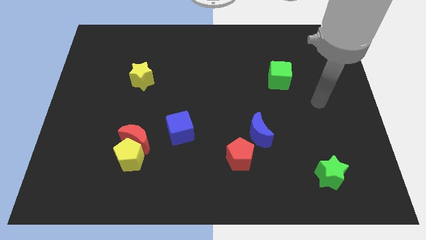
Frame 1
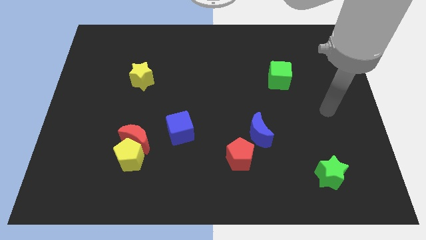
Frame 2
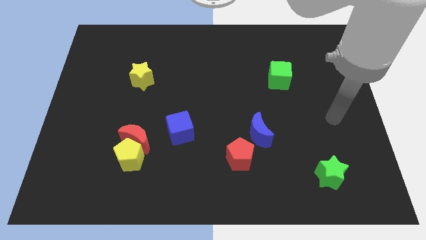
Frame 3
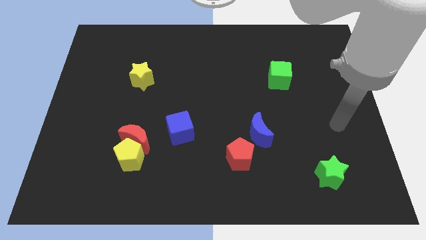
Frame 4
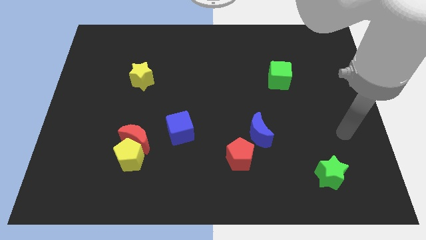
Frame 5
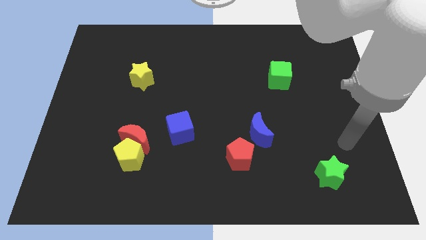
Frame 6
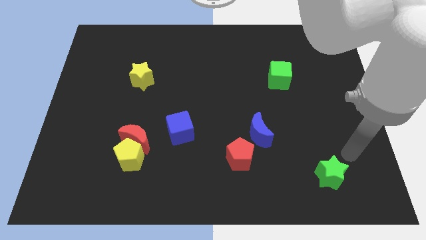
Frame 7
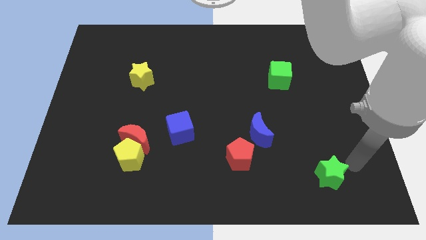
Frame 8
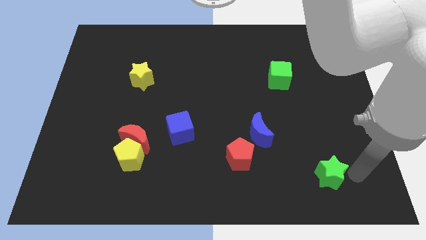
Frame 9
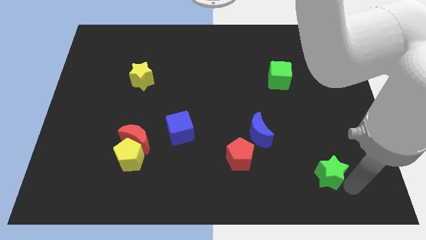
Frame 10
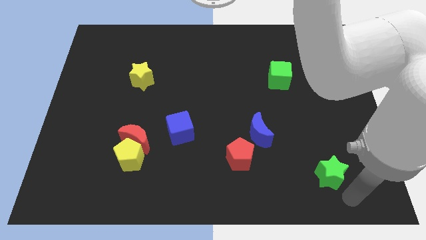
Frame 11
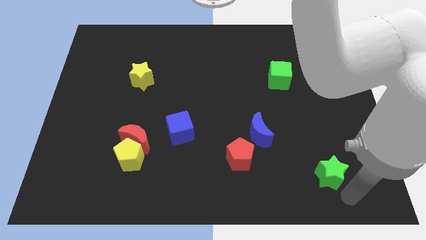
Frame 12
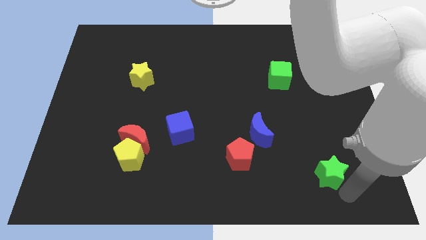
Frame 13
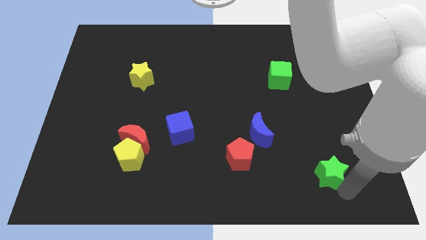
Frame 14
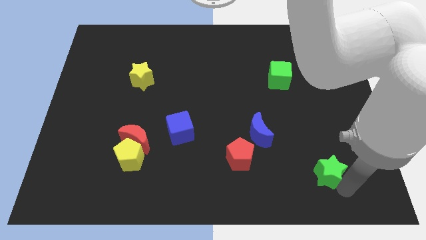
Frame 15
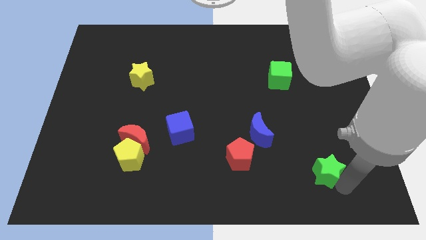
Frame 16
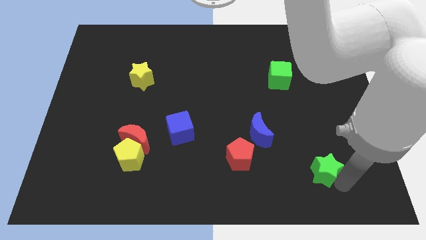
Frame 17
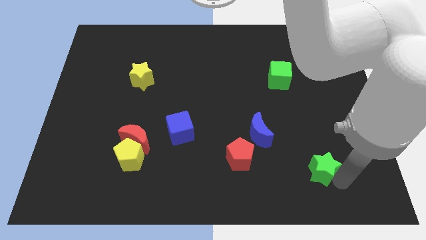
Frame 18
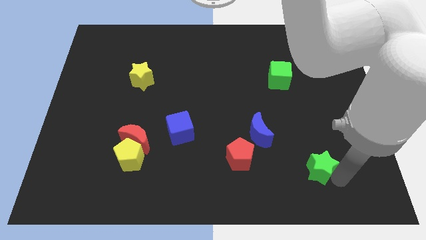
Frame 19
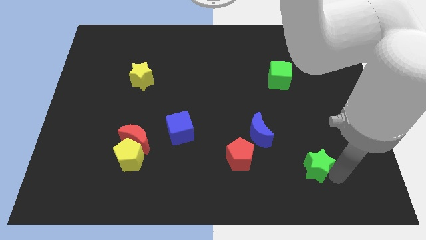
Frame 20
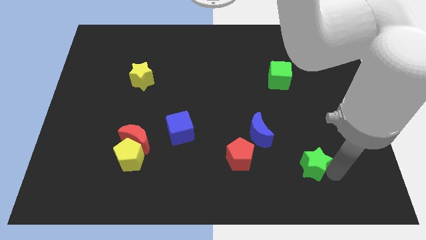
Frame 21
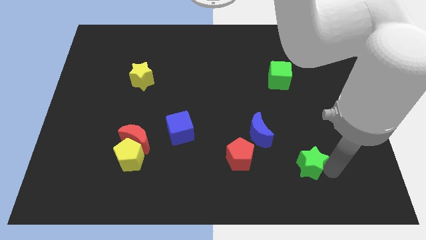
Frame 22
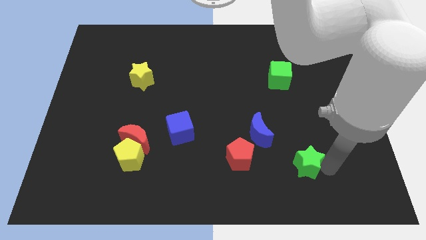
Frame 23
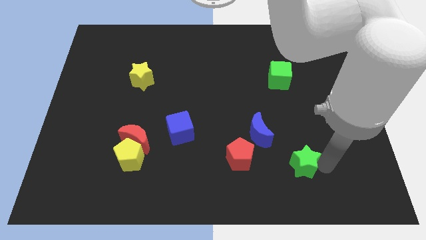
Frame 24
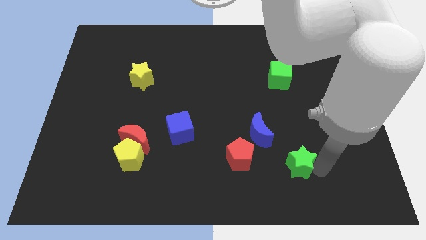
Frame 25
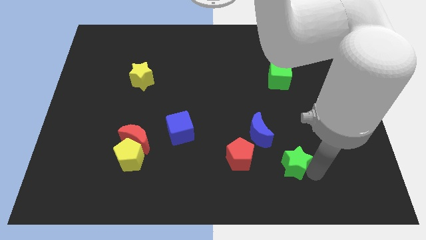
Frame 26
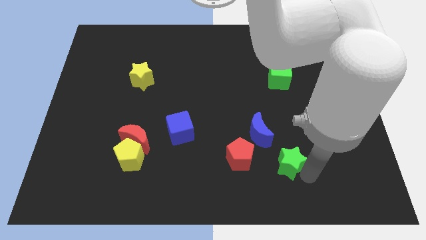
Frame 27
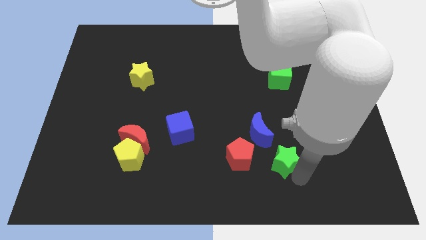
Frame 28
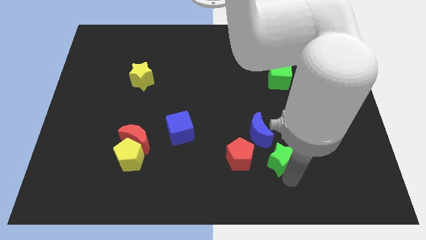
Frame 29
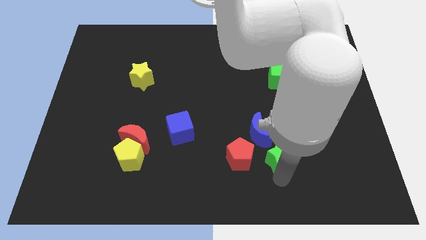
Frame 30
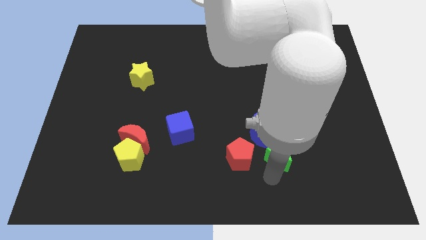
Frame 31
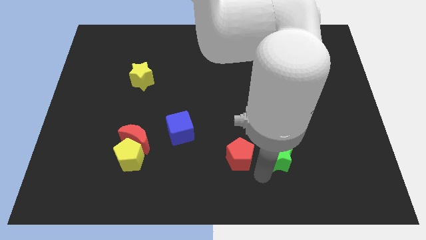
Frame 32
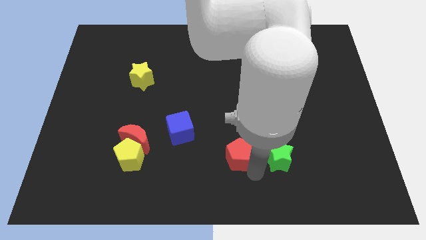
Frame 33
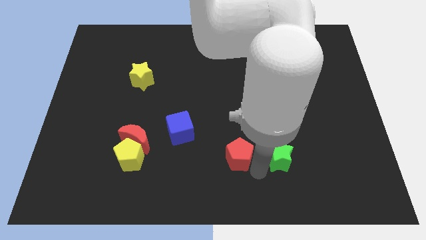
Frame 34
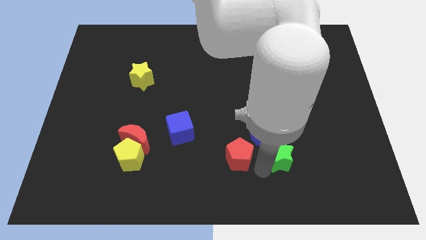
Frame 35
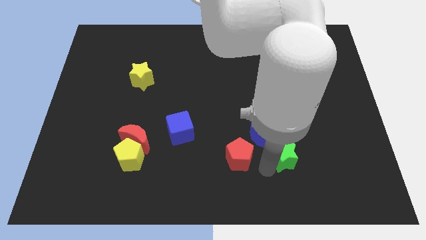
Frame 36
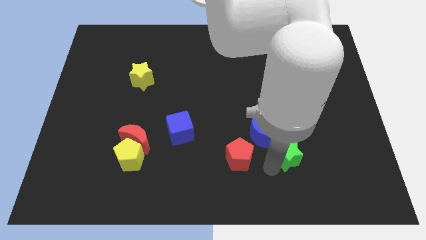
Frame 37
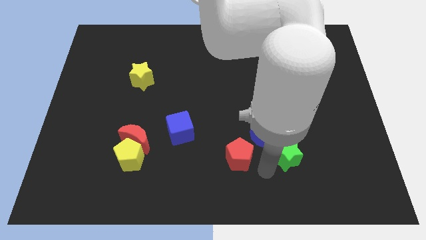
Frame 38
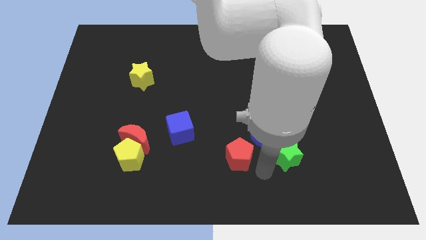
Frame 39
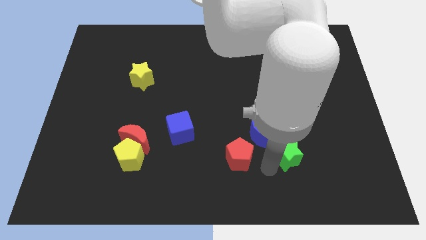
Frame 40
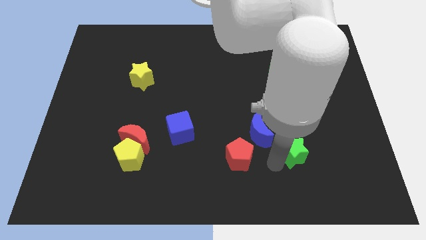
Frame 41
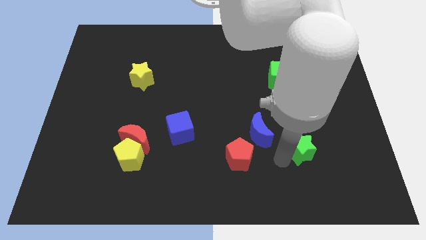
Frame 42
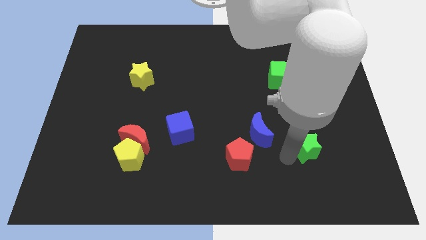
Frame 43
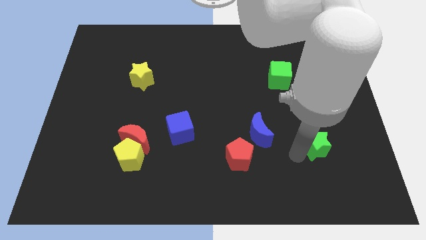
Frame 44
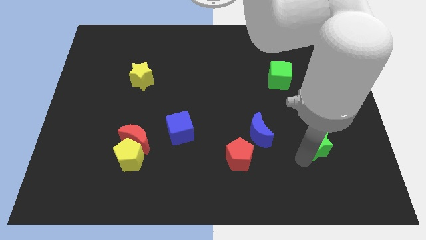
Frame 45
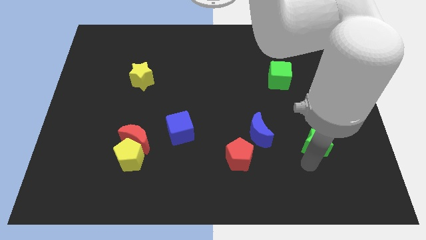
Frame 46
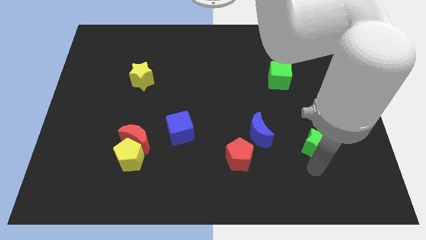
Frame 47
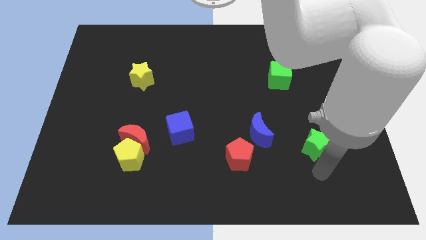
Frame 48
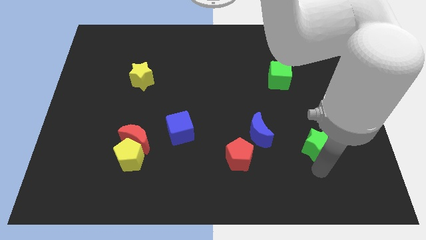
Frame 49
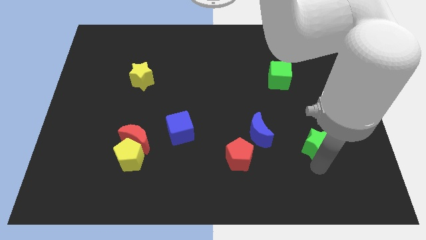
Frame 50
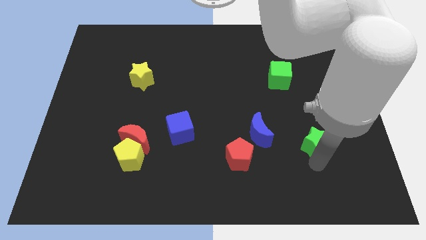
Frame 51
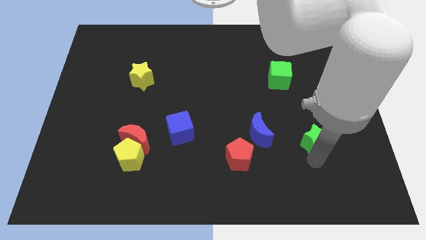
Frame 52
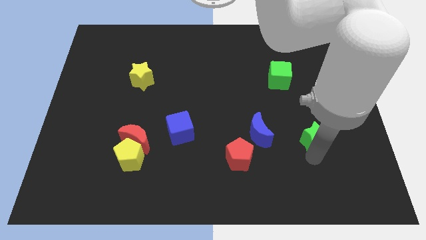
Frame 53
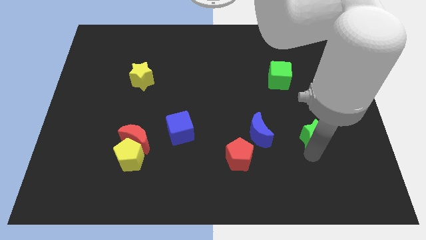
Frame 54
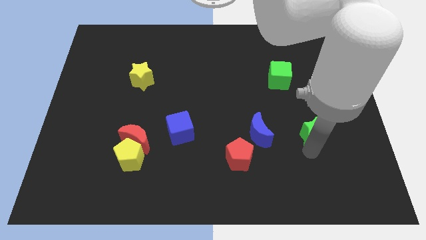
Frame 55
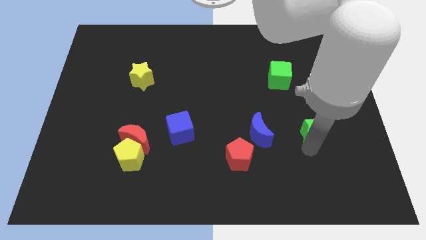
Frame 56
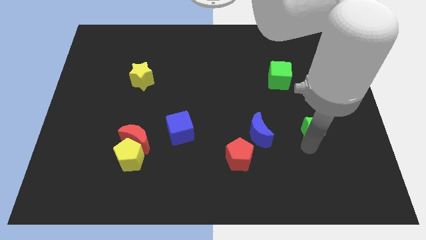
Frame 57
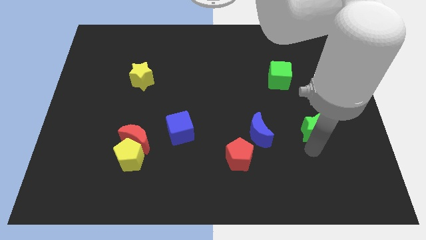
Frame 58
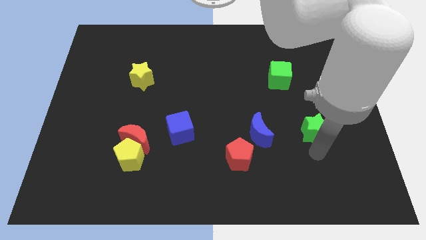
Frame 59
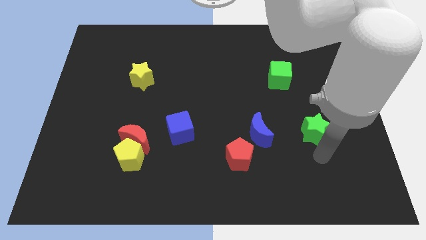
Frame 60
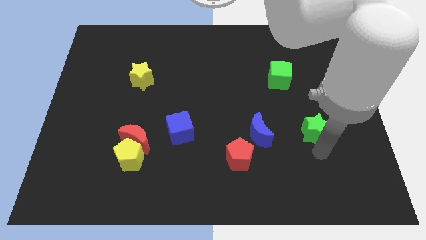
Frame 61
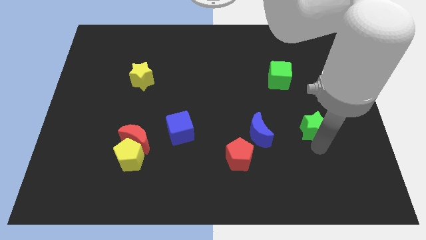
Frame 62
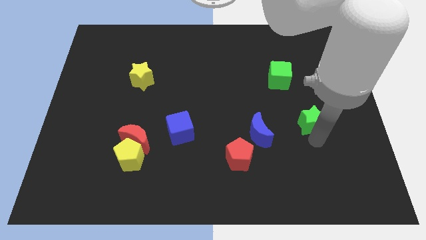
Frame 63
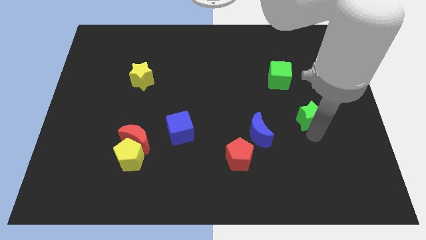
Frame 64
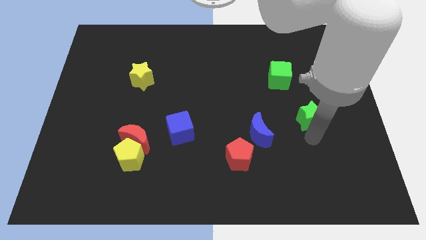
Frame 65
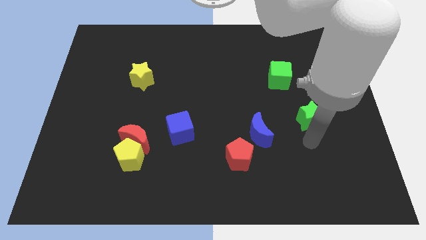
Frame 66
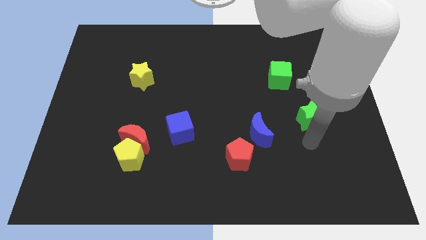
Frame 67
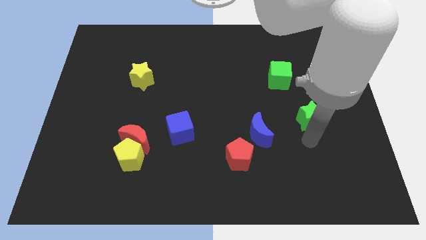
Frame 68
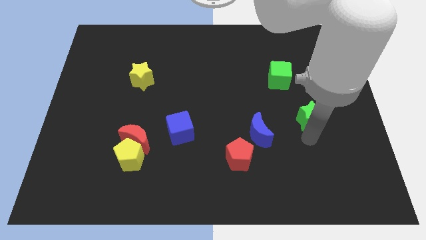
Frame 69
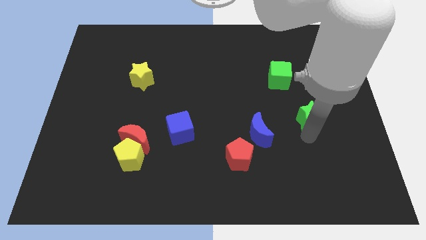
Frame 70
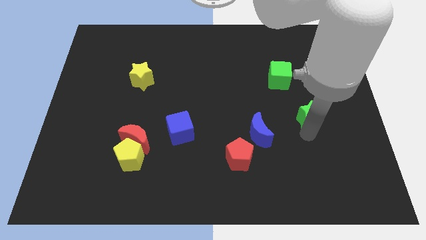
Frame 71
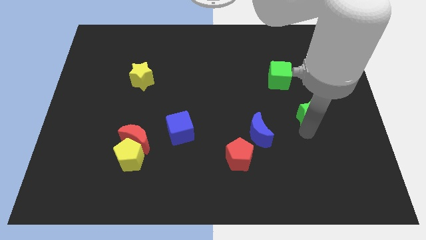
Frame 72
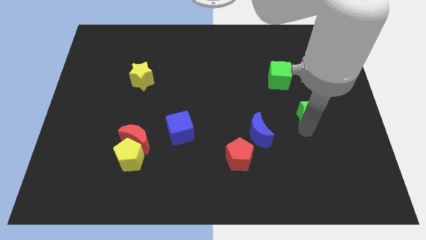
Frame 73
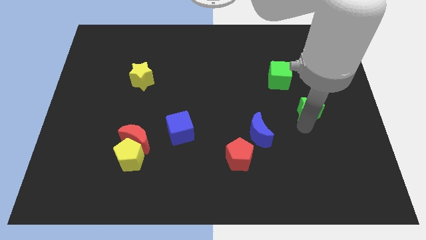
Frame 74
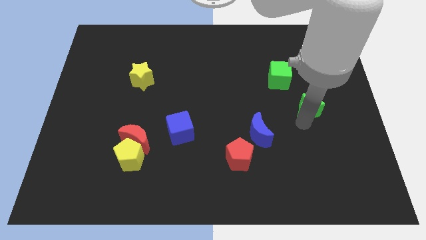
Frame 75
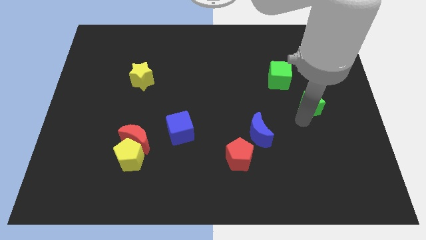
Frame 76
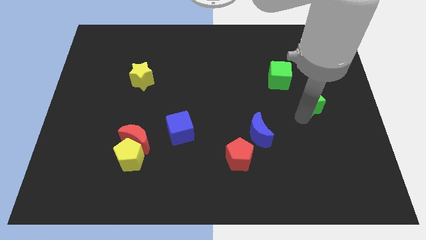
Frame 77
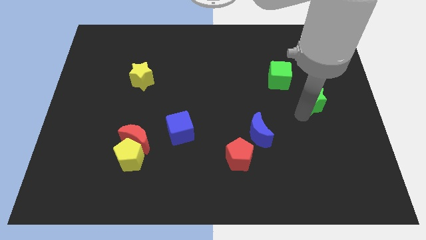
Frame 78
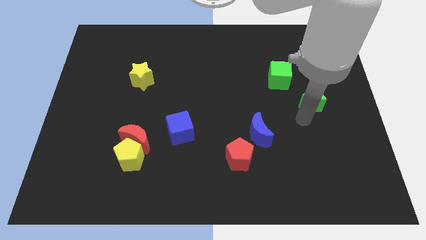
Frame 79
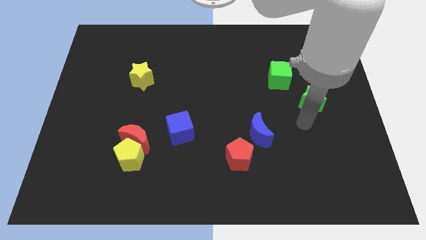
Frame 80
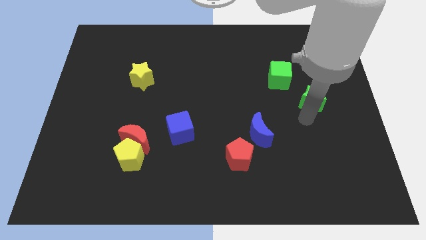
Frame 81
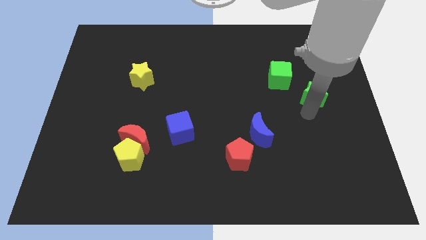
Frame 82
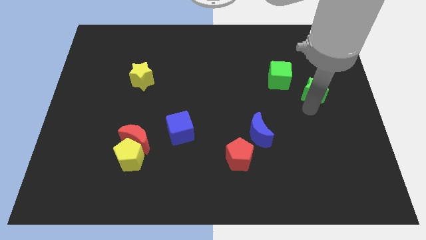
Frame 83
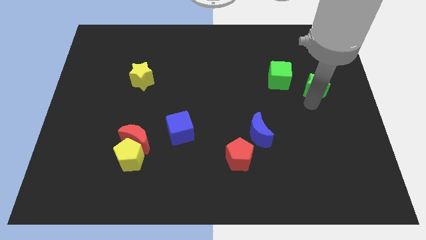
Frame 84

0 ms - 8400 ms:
move the green star just right of the green cube
